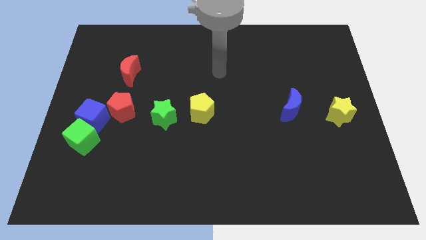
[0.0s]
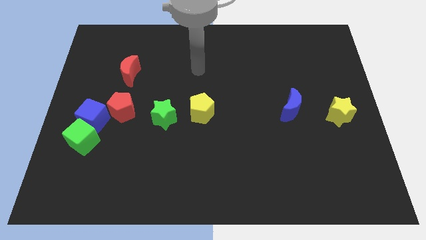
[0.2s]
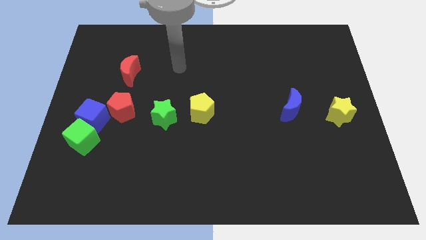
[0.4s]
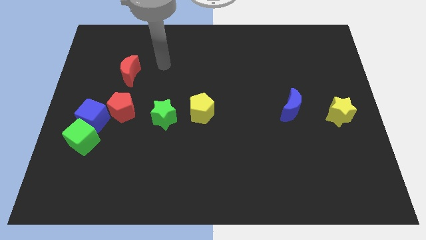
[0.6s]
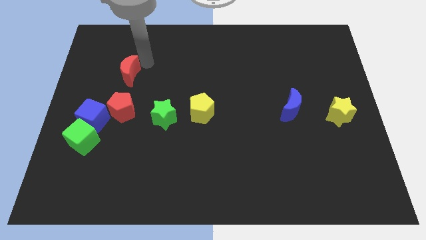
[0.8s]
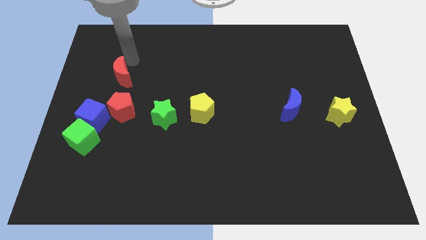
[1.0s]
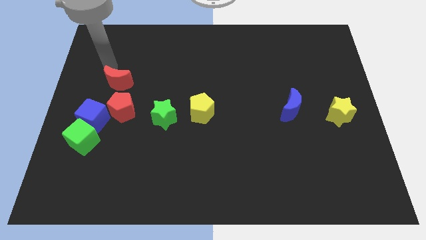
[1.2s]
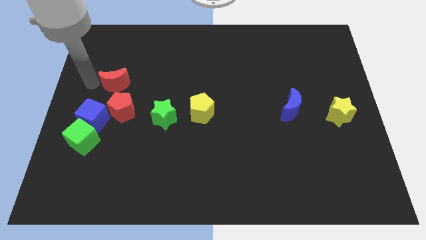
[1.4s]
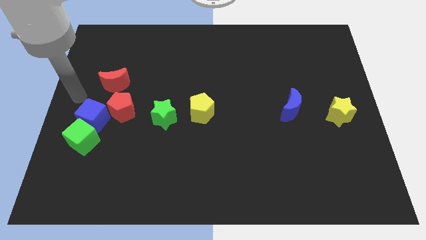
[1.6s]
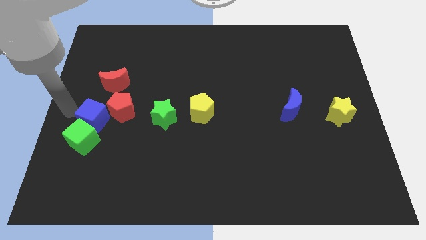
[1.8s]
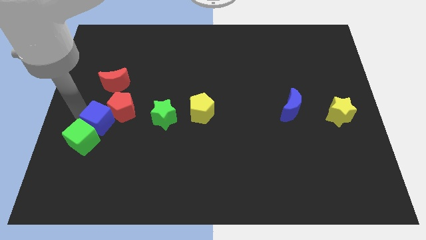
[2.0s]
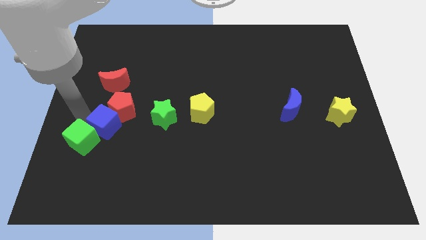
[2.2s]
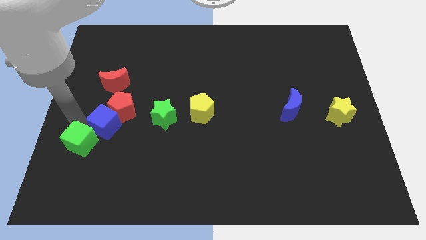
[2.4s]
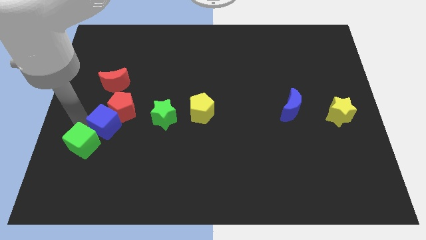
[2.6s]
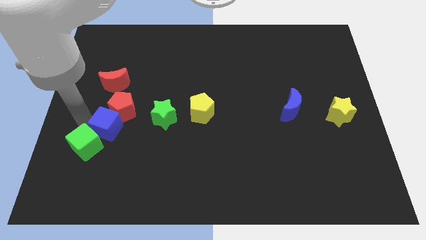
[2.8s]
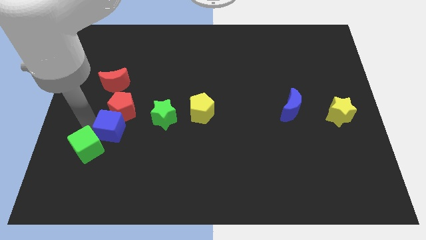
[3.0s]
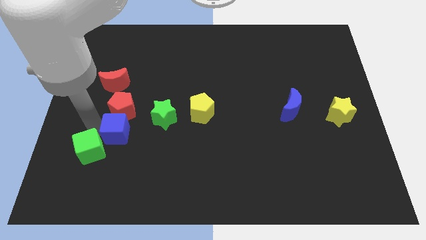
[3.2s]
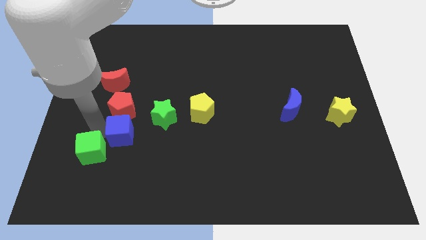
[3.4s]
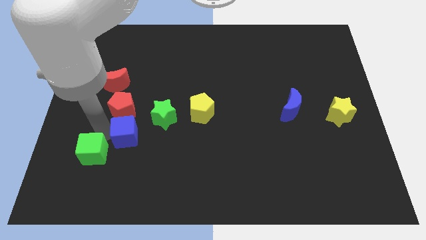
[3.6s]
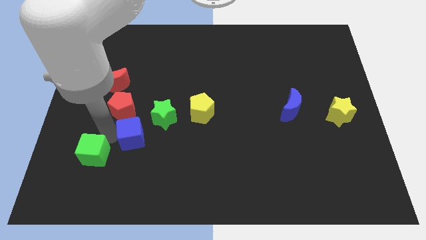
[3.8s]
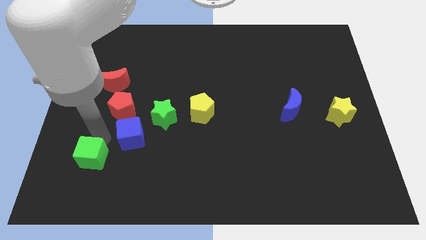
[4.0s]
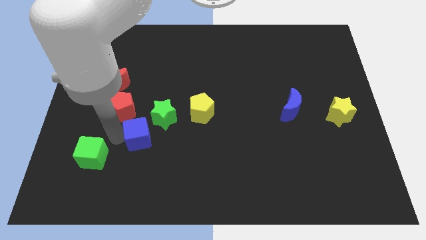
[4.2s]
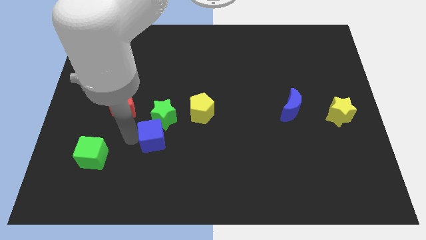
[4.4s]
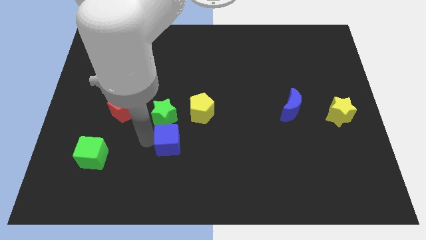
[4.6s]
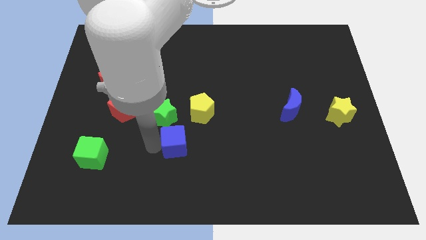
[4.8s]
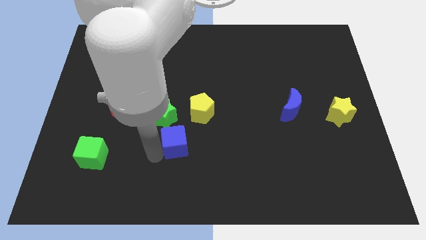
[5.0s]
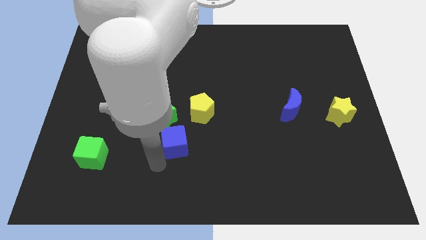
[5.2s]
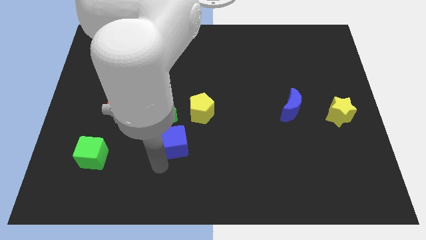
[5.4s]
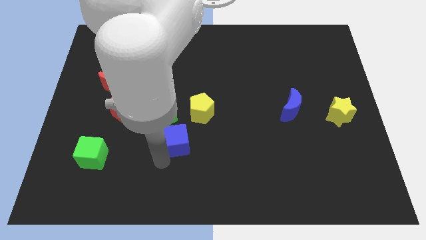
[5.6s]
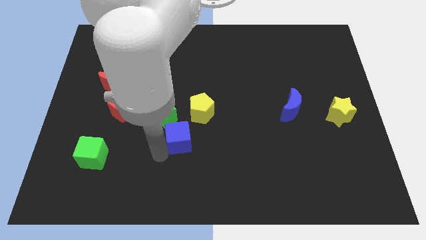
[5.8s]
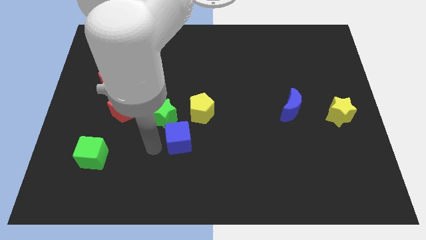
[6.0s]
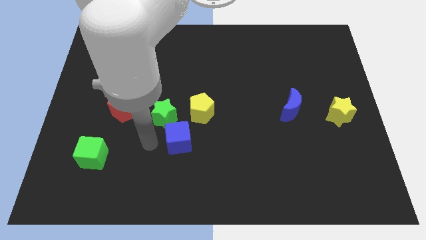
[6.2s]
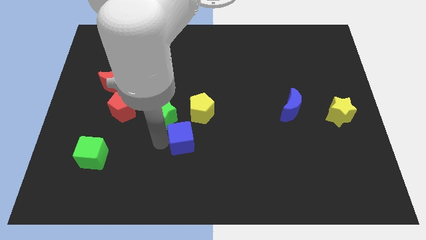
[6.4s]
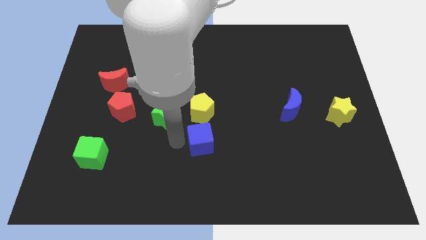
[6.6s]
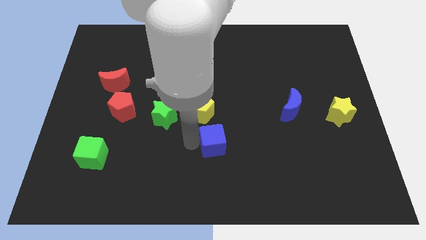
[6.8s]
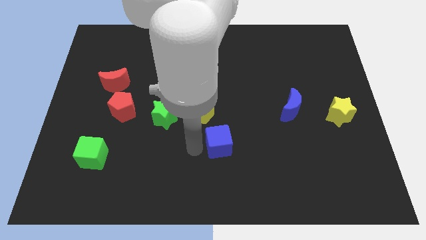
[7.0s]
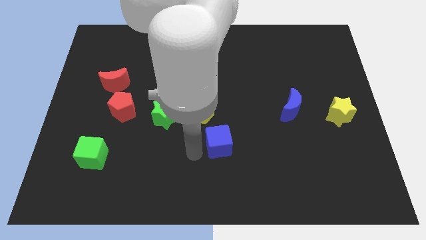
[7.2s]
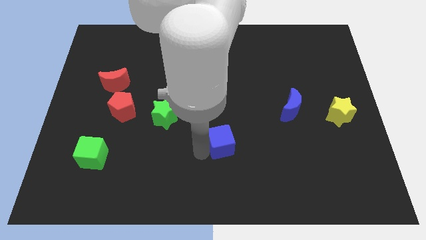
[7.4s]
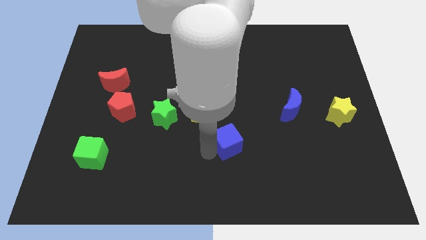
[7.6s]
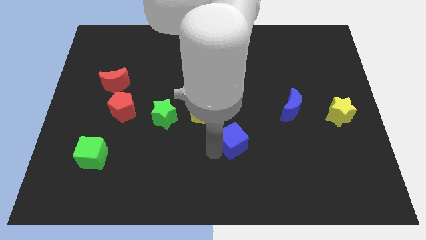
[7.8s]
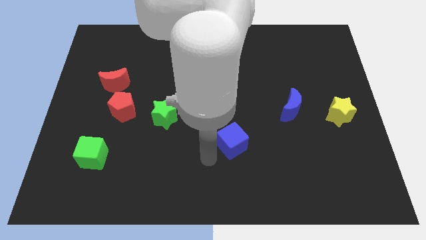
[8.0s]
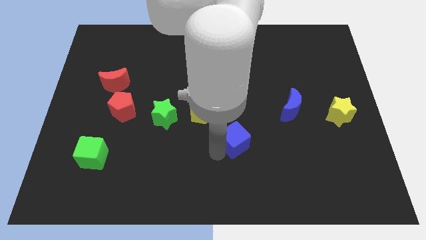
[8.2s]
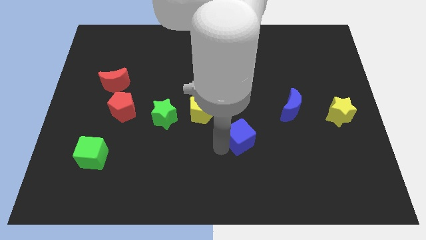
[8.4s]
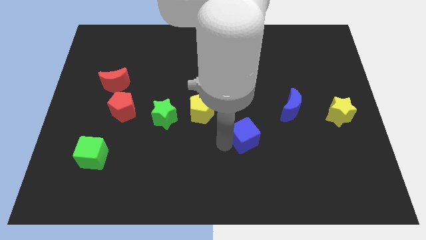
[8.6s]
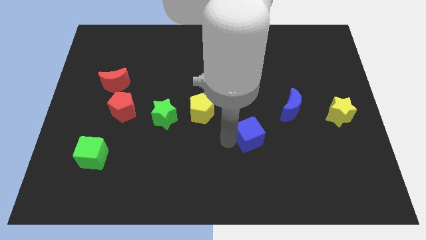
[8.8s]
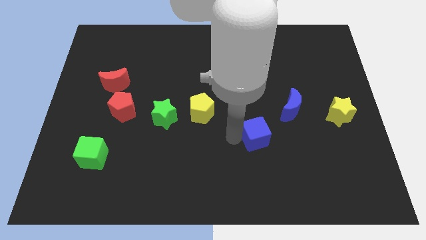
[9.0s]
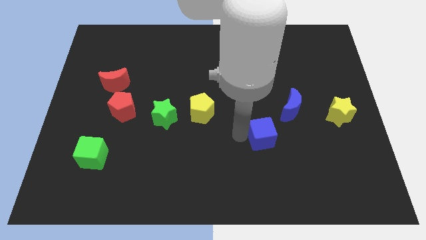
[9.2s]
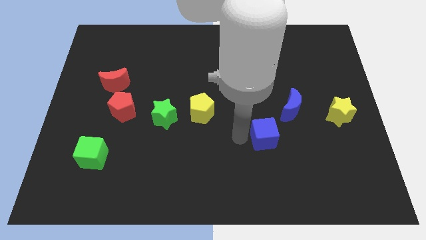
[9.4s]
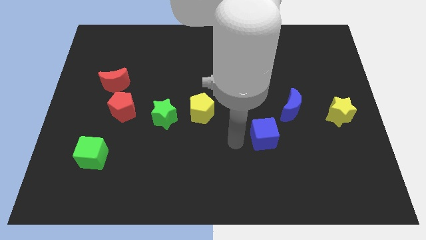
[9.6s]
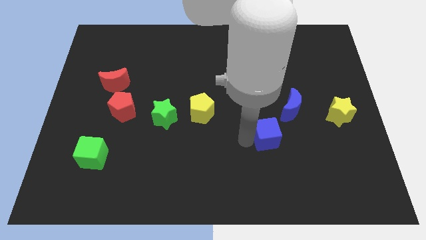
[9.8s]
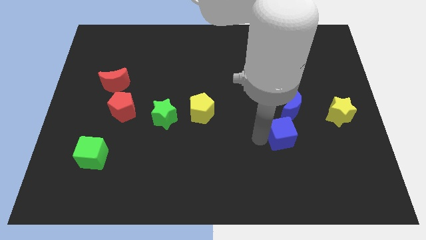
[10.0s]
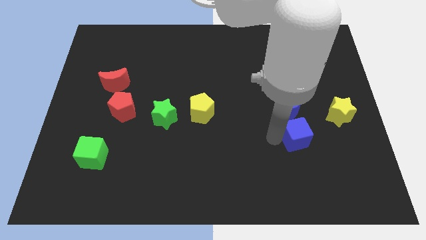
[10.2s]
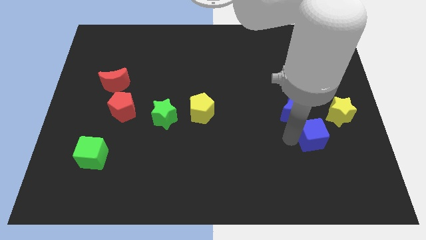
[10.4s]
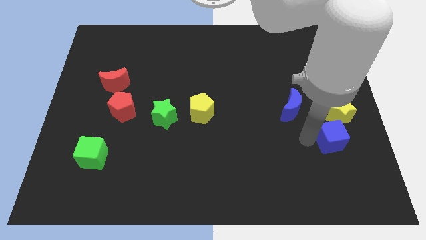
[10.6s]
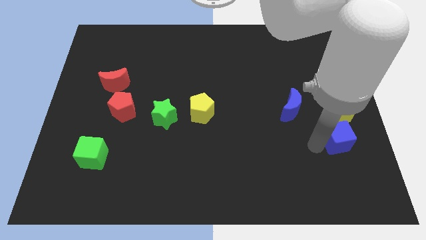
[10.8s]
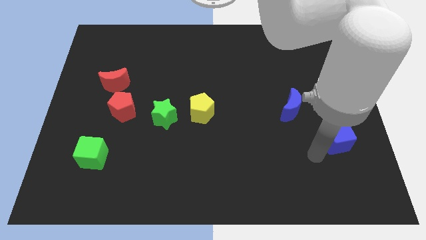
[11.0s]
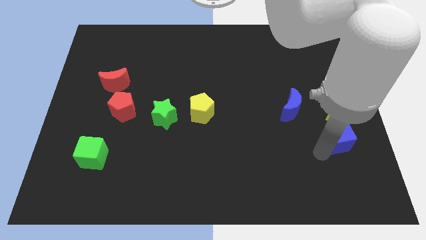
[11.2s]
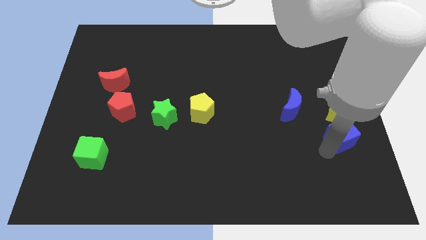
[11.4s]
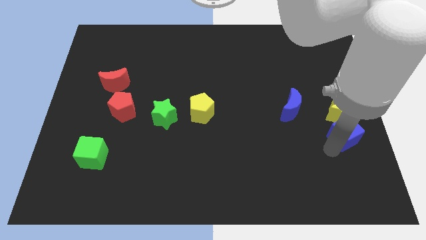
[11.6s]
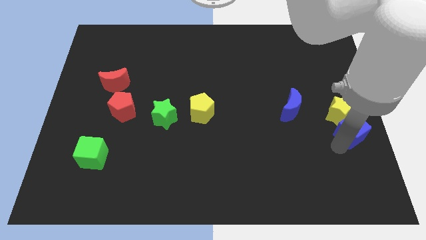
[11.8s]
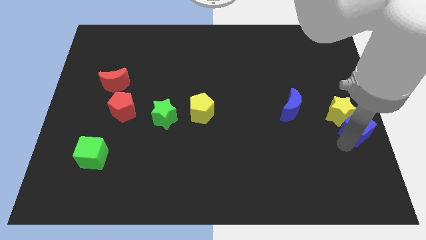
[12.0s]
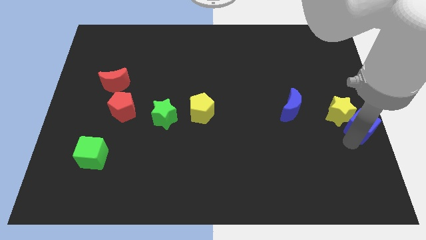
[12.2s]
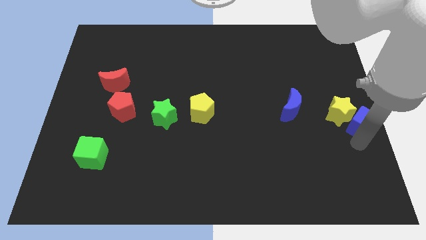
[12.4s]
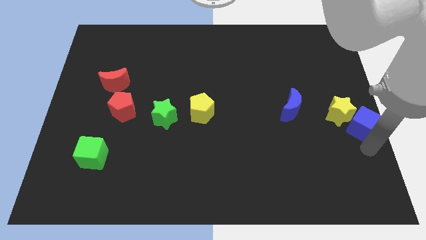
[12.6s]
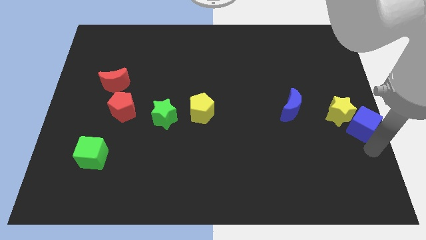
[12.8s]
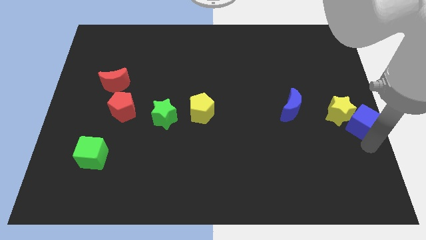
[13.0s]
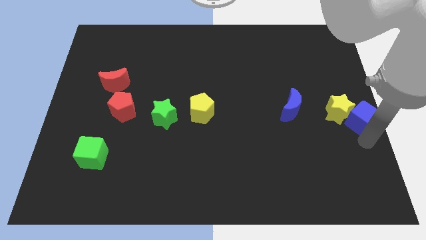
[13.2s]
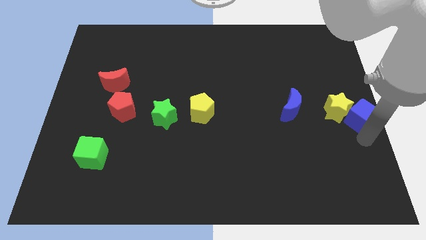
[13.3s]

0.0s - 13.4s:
put the blue cube to the right side of the blue moon
